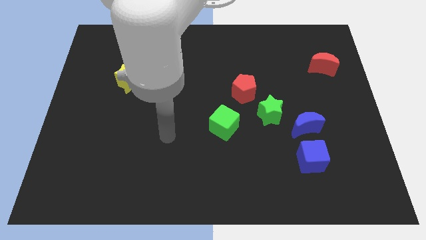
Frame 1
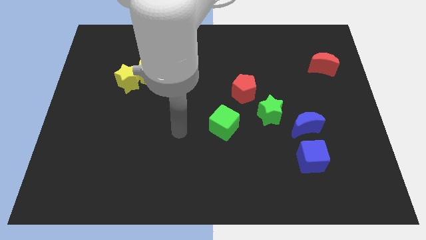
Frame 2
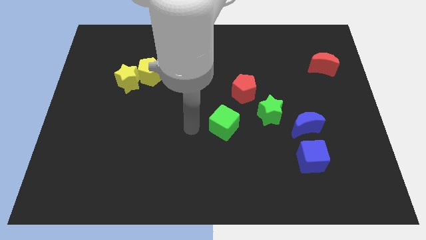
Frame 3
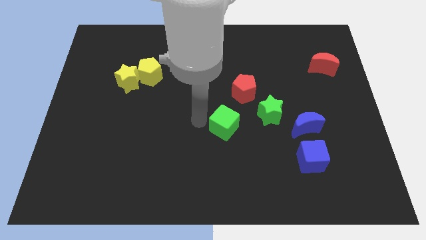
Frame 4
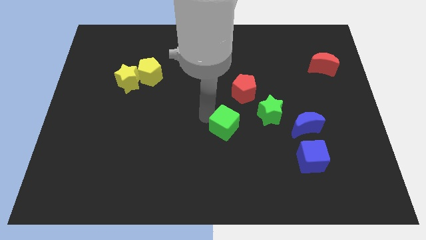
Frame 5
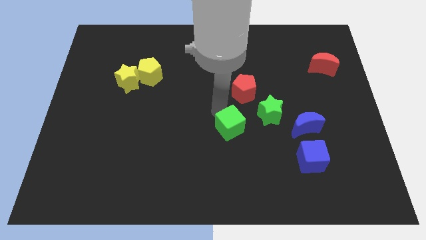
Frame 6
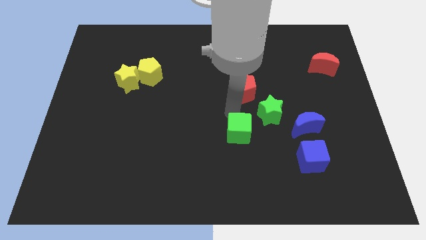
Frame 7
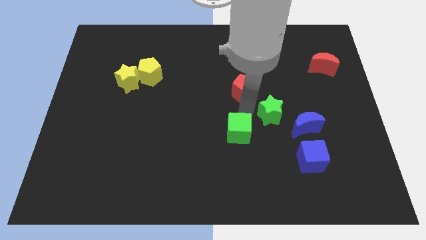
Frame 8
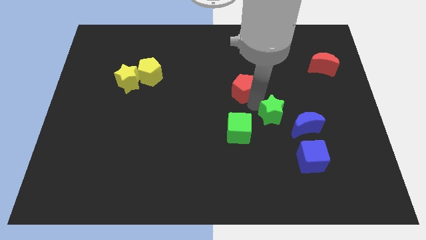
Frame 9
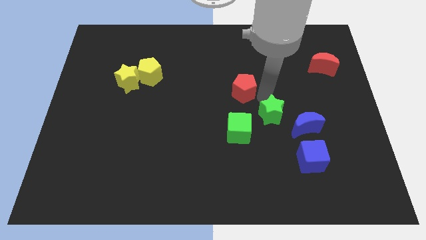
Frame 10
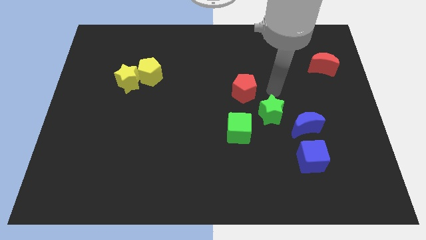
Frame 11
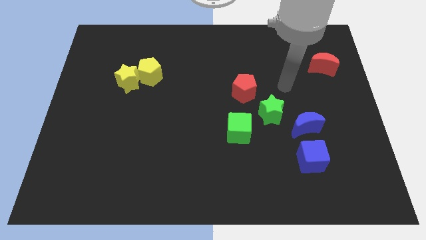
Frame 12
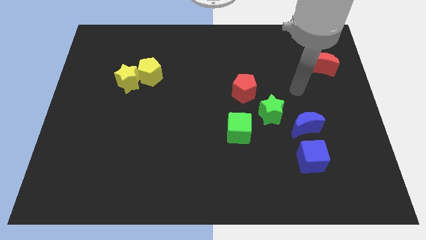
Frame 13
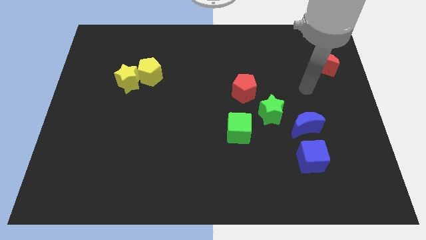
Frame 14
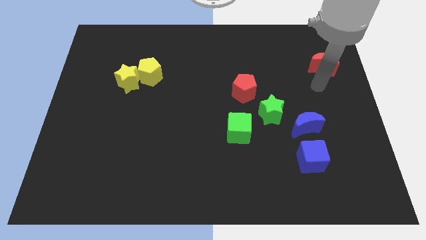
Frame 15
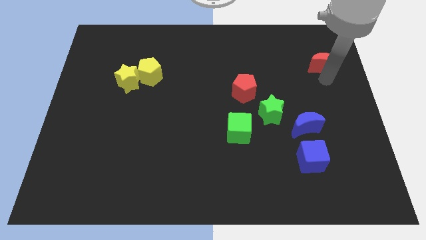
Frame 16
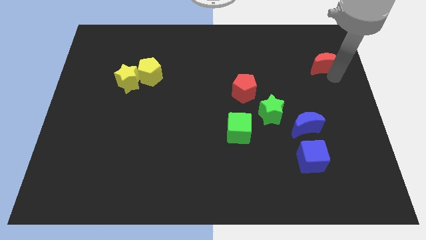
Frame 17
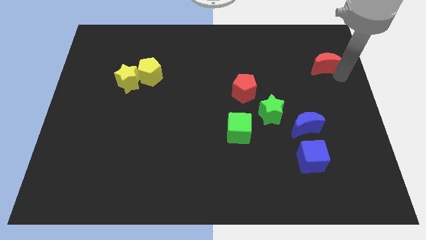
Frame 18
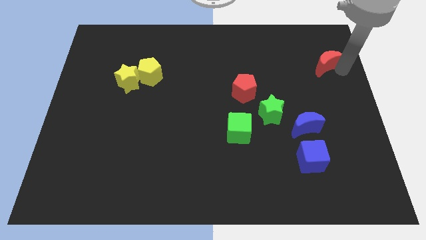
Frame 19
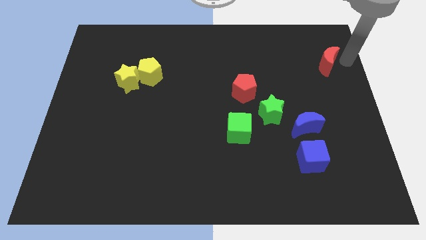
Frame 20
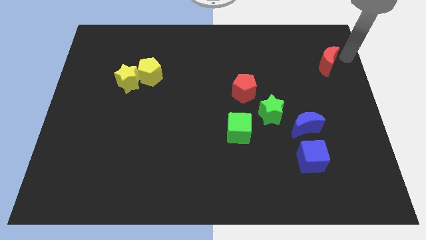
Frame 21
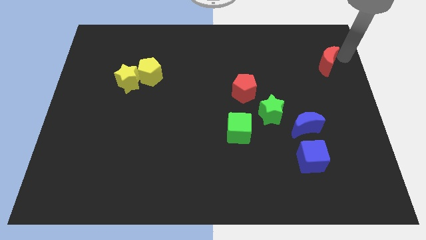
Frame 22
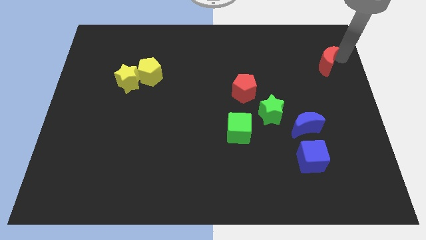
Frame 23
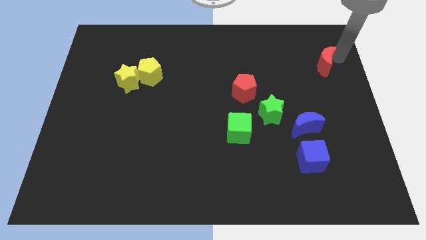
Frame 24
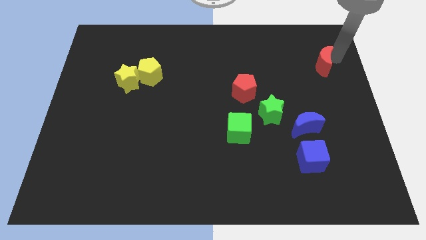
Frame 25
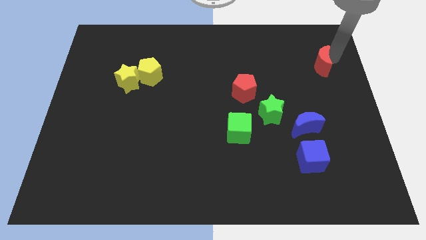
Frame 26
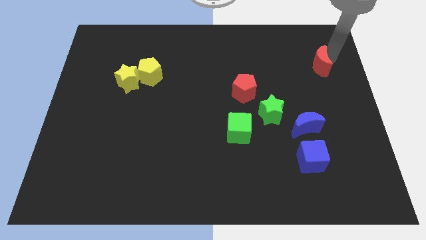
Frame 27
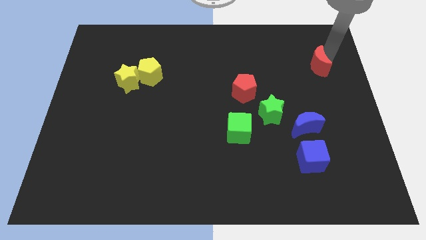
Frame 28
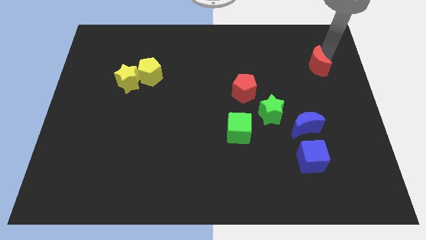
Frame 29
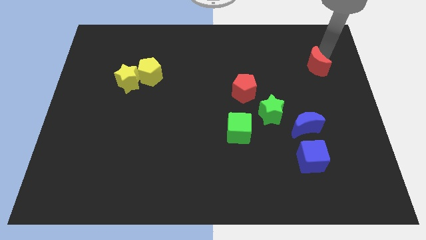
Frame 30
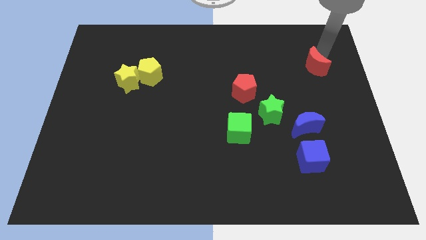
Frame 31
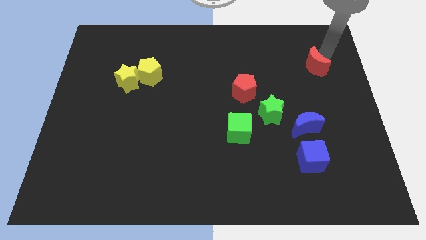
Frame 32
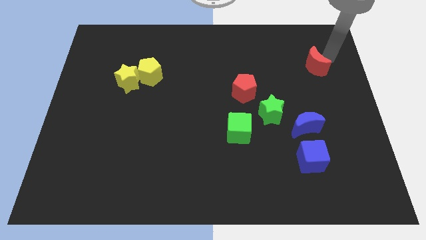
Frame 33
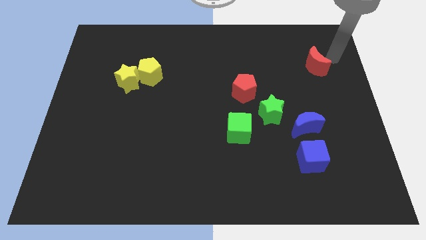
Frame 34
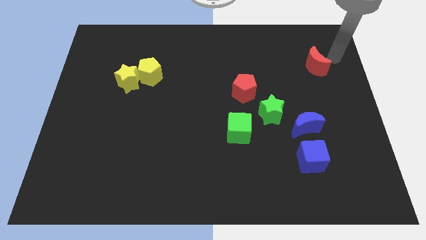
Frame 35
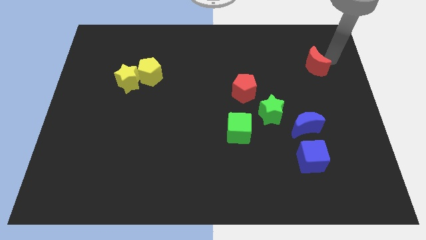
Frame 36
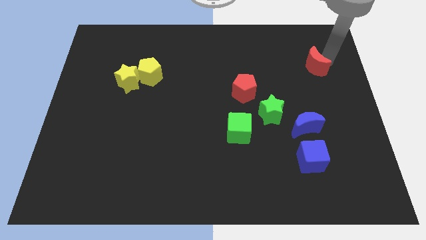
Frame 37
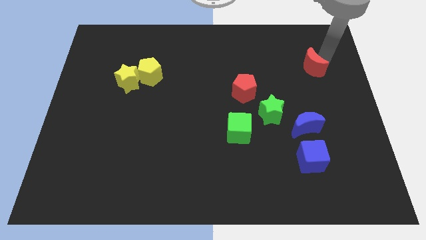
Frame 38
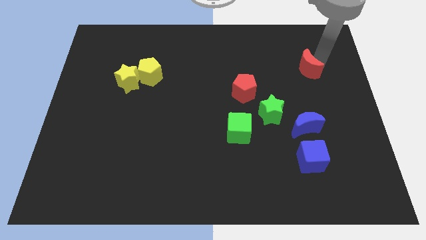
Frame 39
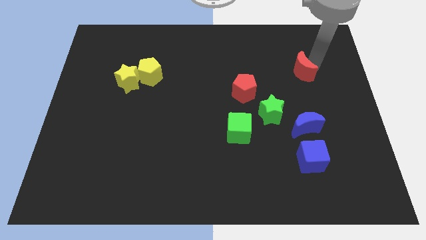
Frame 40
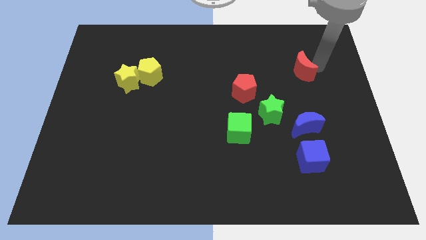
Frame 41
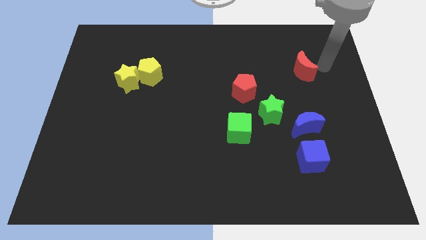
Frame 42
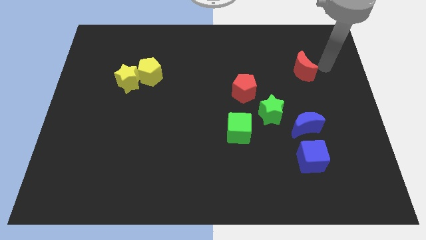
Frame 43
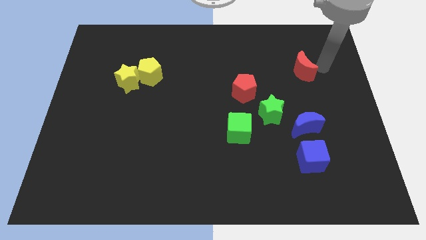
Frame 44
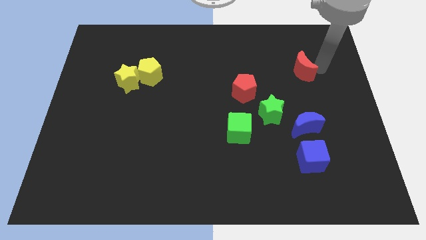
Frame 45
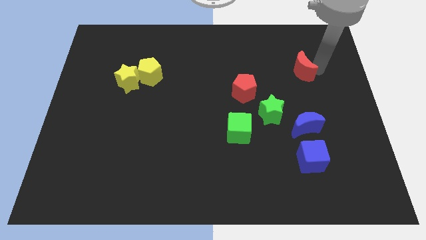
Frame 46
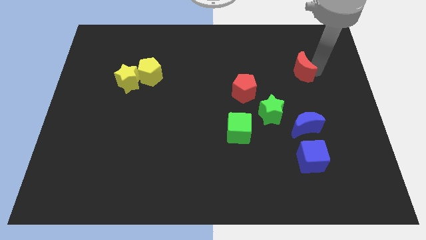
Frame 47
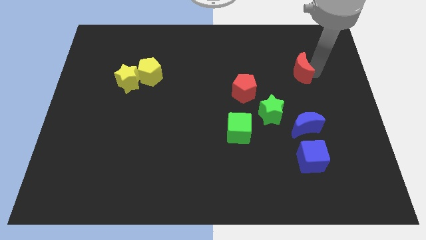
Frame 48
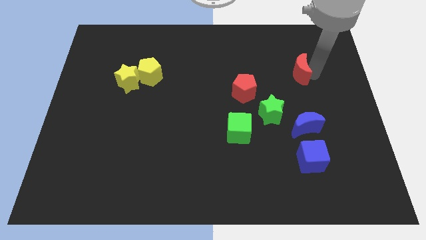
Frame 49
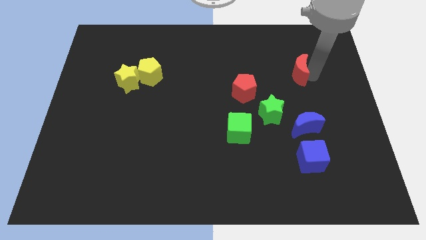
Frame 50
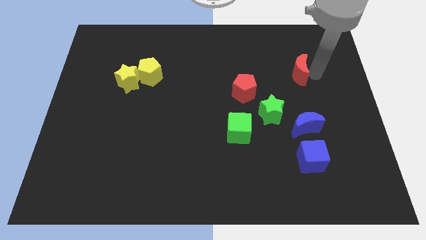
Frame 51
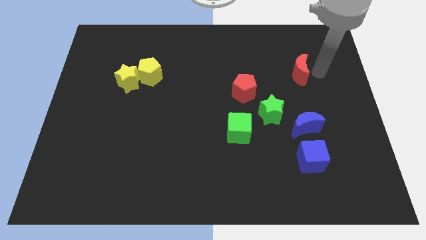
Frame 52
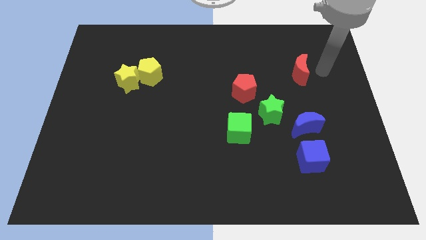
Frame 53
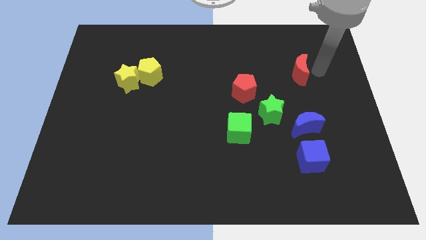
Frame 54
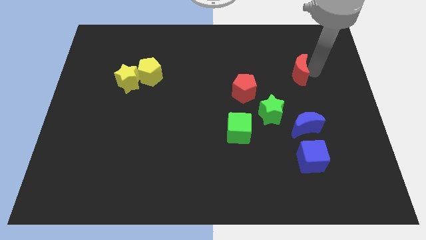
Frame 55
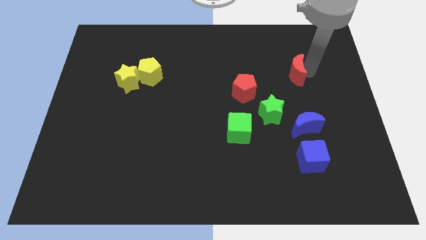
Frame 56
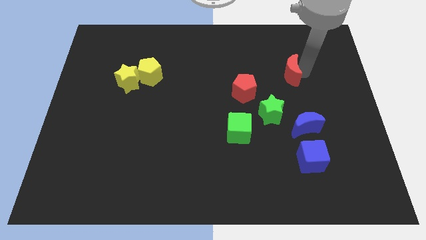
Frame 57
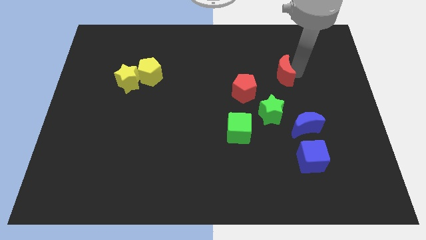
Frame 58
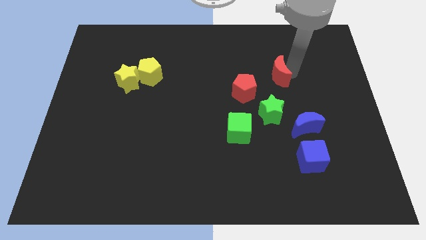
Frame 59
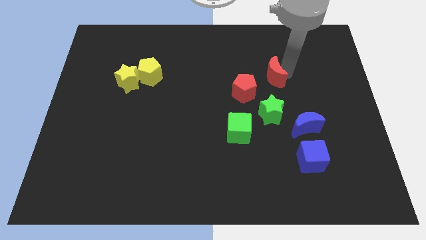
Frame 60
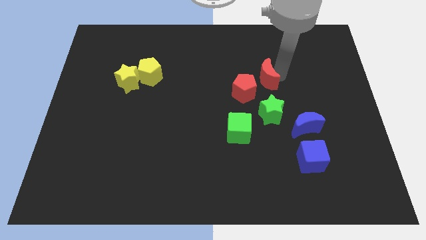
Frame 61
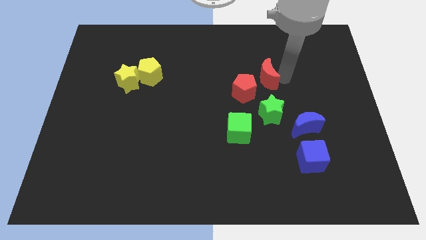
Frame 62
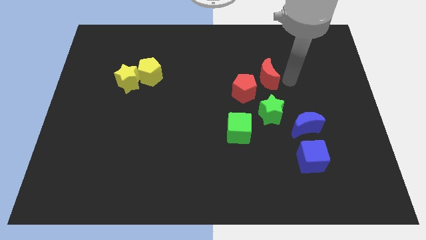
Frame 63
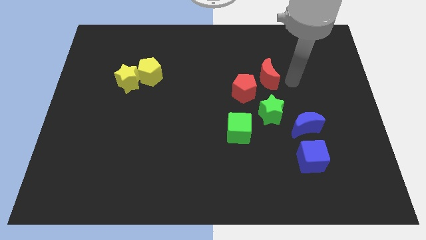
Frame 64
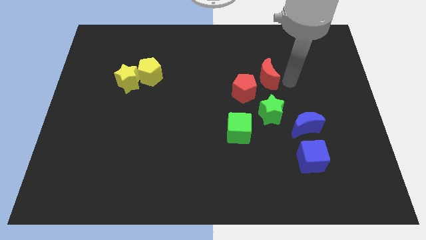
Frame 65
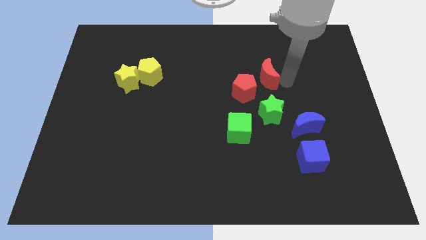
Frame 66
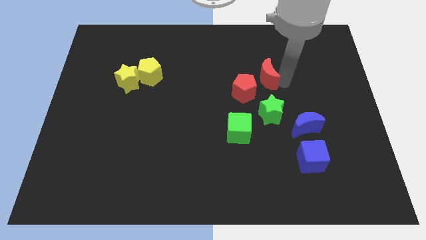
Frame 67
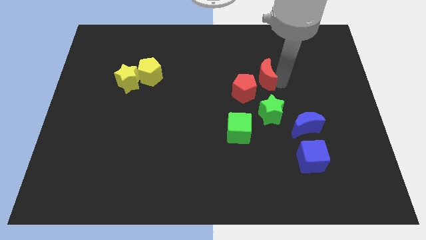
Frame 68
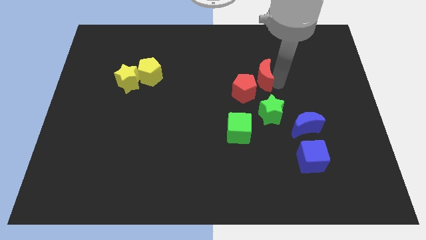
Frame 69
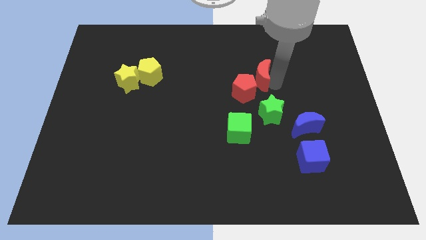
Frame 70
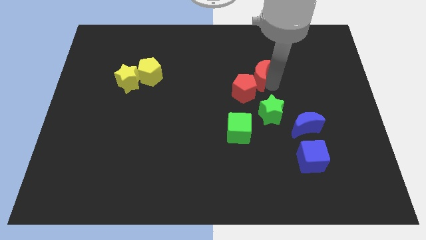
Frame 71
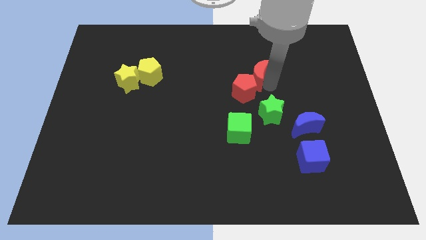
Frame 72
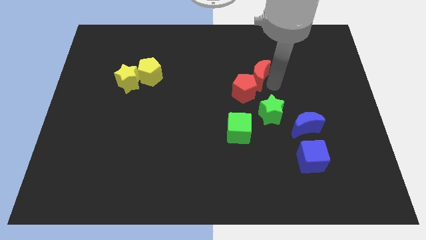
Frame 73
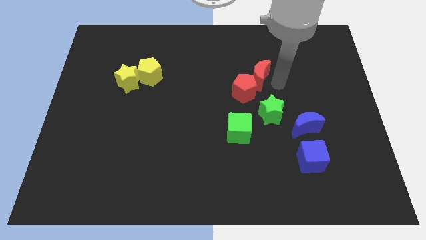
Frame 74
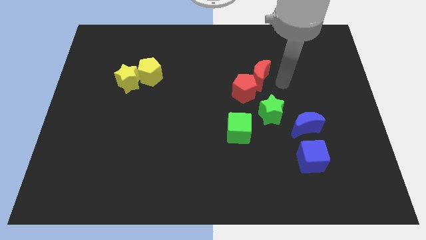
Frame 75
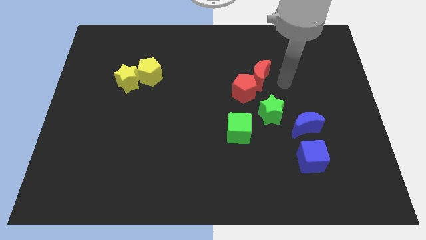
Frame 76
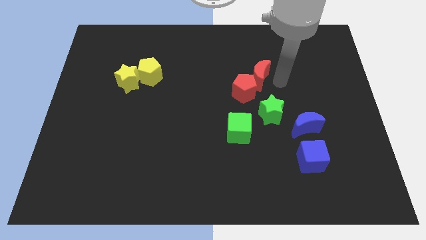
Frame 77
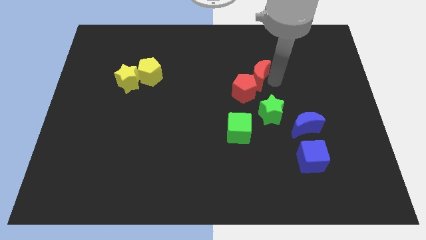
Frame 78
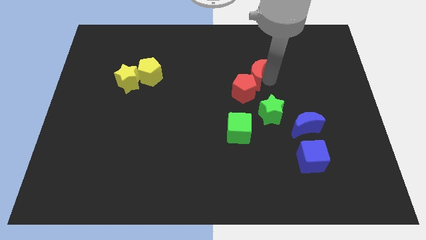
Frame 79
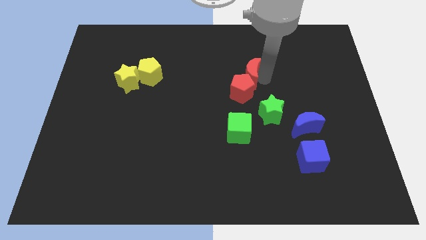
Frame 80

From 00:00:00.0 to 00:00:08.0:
put the red moon to the middle
